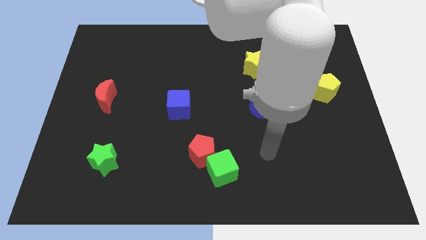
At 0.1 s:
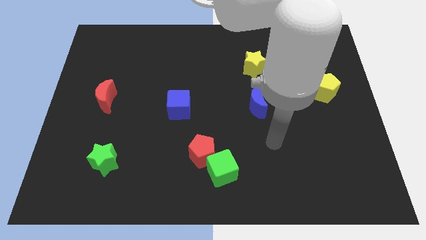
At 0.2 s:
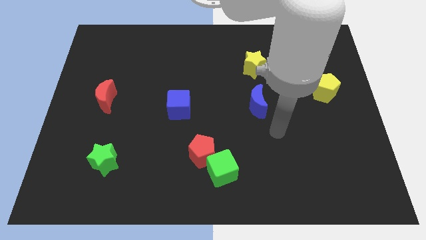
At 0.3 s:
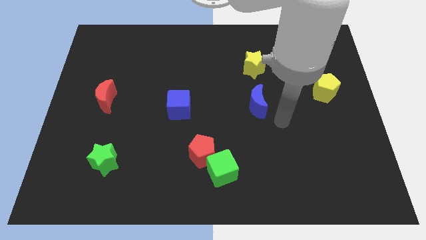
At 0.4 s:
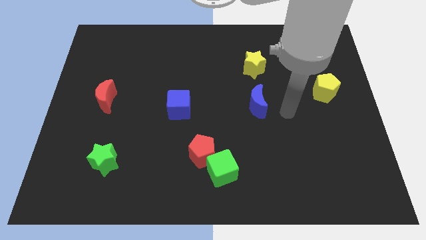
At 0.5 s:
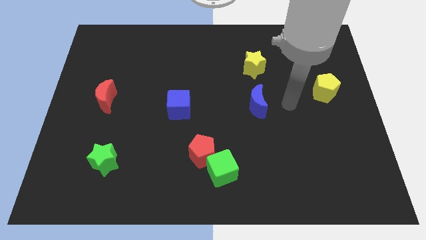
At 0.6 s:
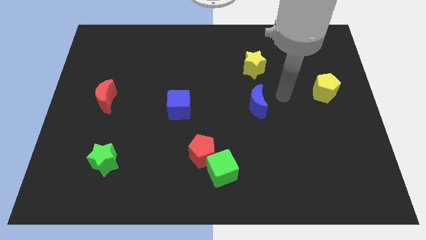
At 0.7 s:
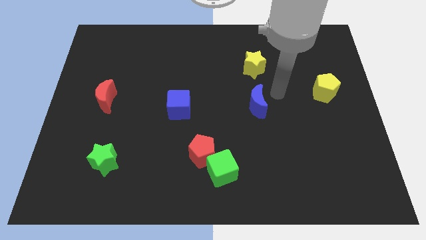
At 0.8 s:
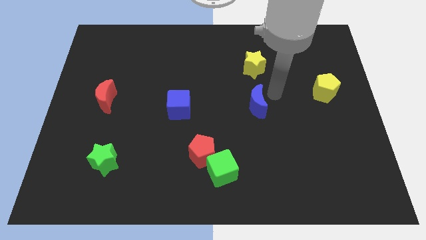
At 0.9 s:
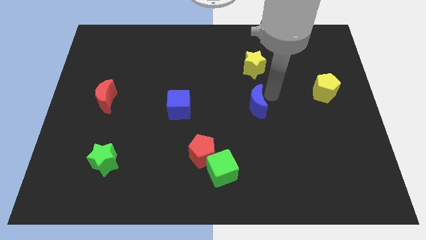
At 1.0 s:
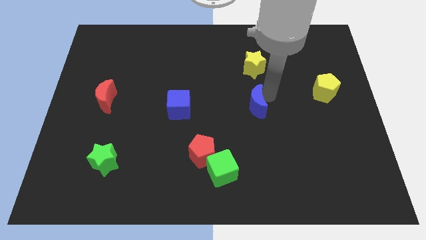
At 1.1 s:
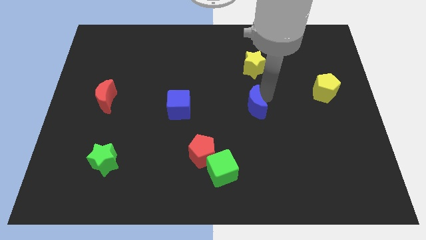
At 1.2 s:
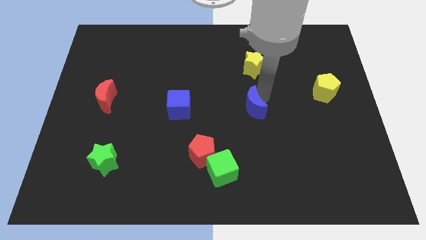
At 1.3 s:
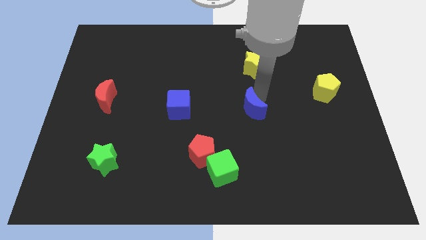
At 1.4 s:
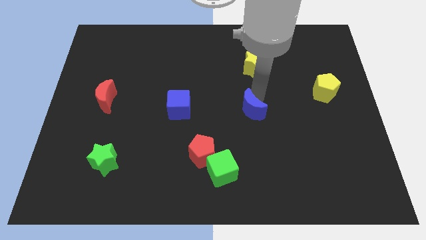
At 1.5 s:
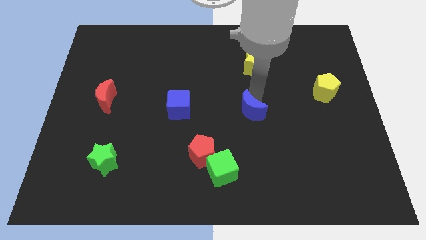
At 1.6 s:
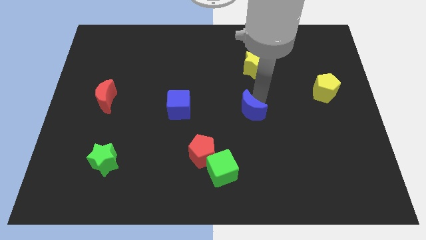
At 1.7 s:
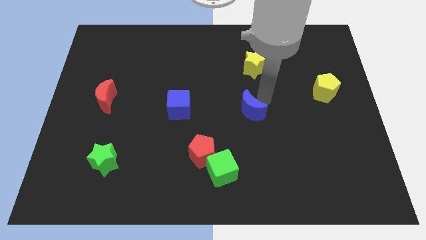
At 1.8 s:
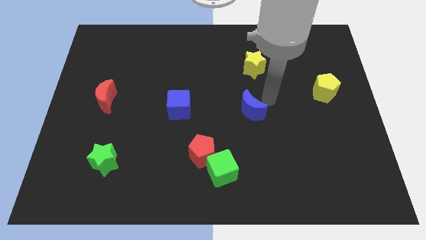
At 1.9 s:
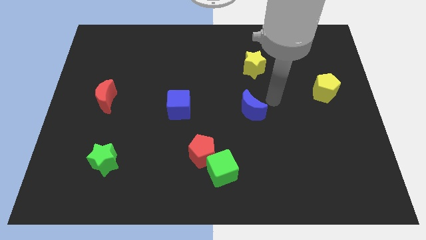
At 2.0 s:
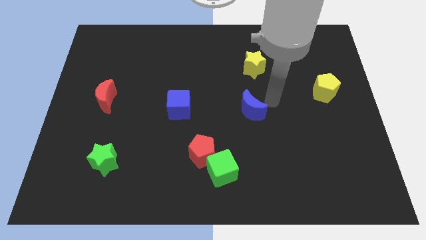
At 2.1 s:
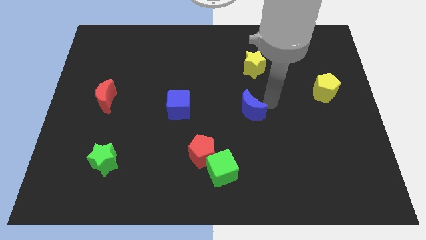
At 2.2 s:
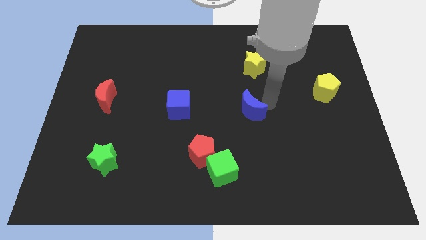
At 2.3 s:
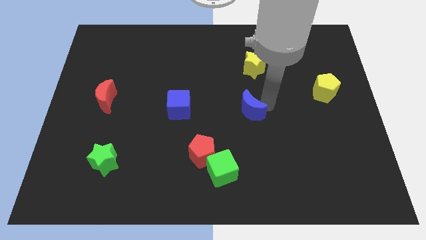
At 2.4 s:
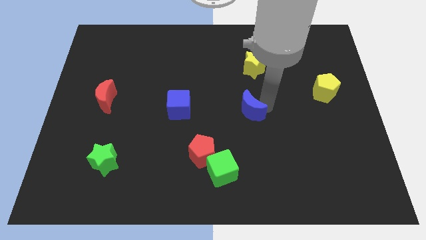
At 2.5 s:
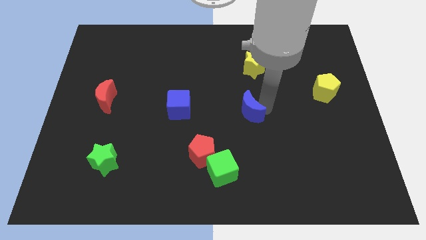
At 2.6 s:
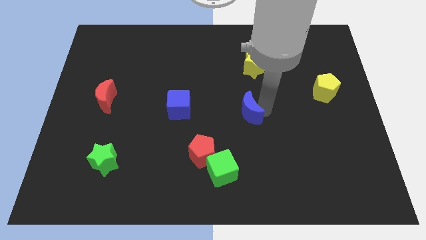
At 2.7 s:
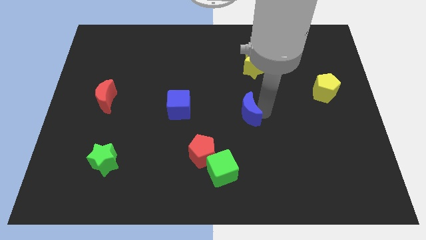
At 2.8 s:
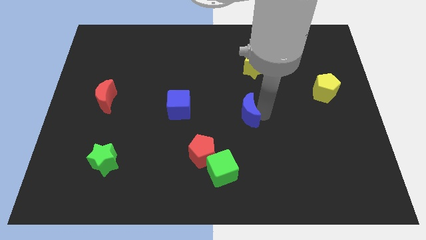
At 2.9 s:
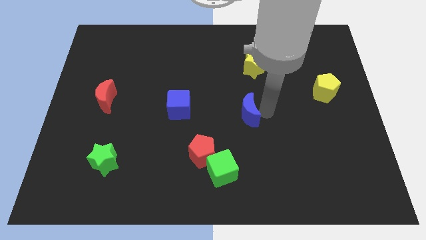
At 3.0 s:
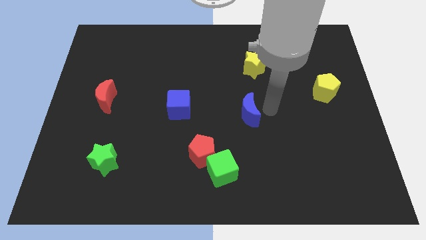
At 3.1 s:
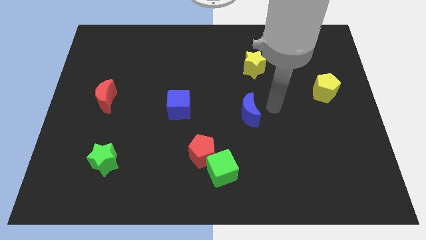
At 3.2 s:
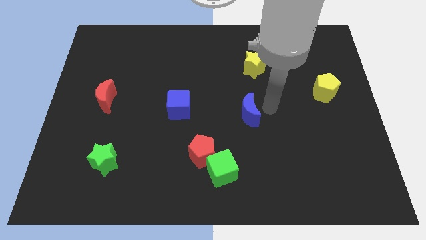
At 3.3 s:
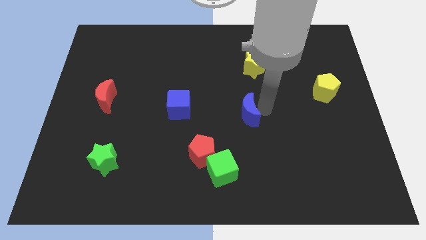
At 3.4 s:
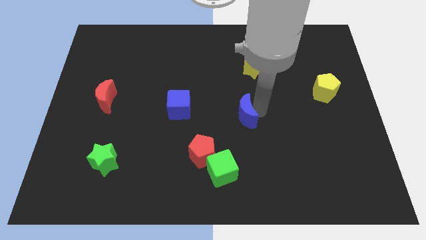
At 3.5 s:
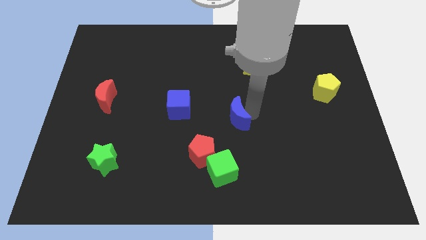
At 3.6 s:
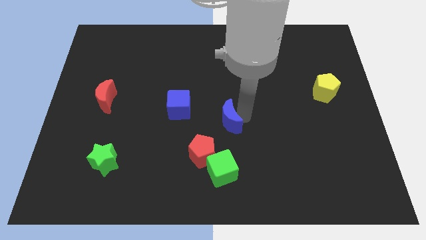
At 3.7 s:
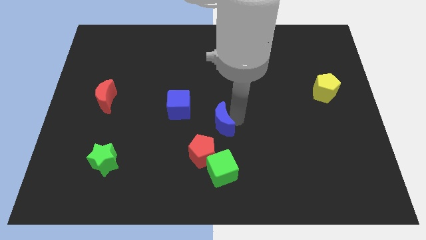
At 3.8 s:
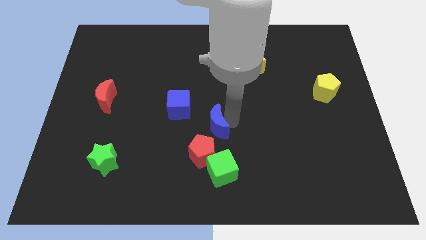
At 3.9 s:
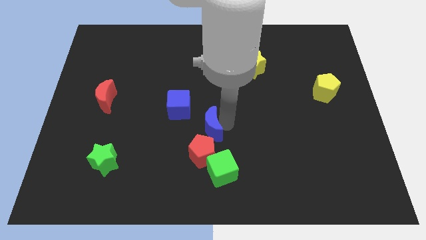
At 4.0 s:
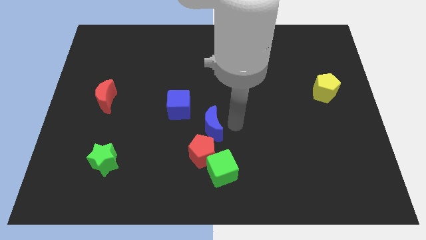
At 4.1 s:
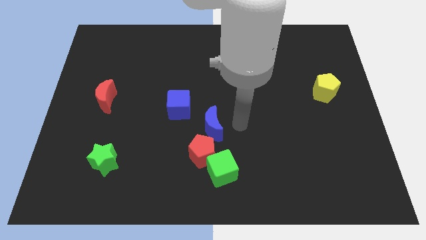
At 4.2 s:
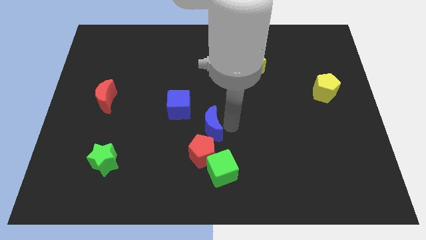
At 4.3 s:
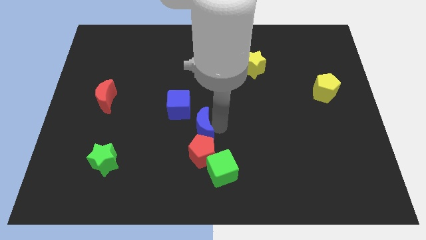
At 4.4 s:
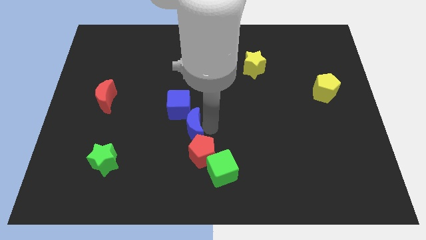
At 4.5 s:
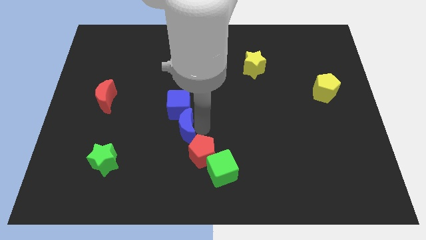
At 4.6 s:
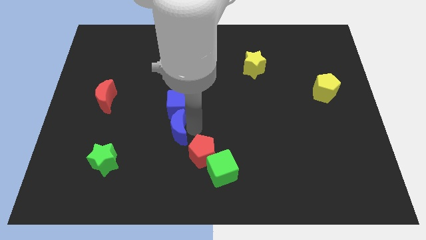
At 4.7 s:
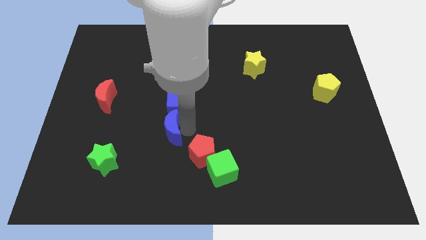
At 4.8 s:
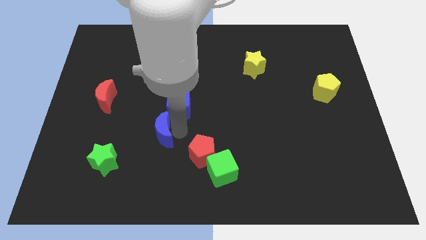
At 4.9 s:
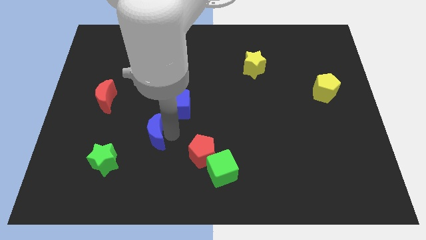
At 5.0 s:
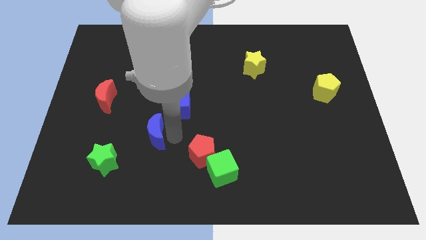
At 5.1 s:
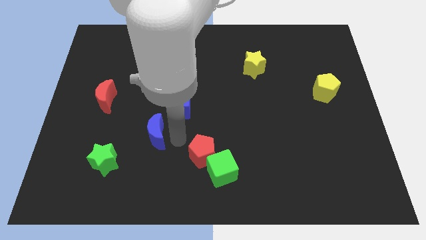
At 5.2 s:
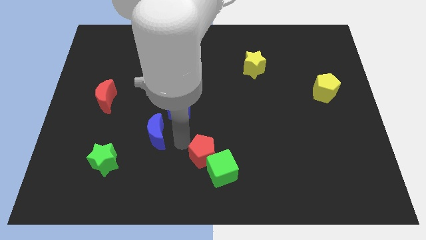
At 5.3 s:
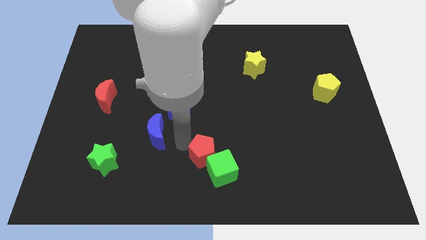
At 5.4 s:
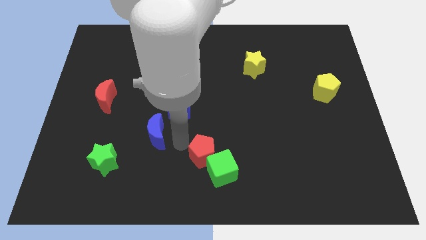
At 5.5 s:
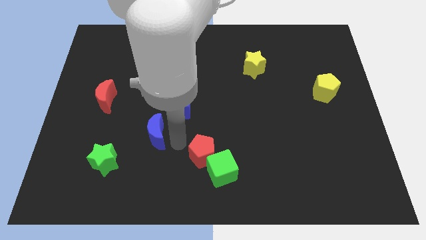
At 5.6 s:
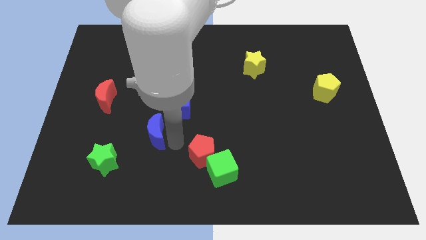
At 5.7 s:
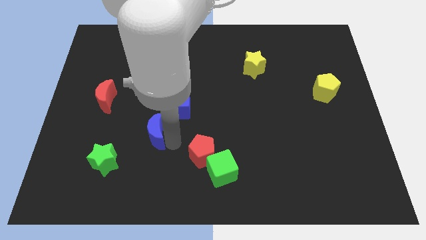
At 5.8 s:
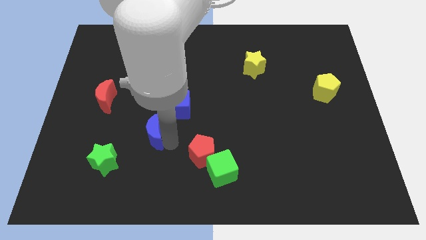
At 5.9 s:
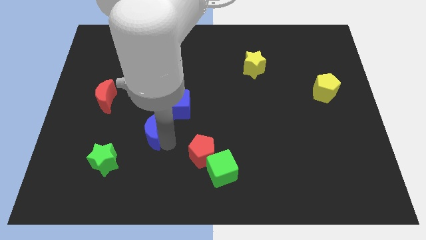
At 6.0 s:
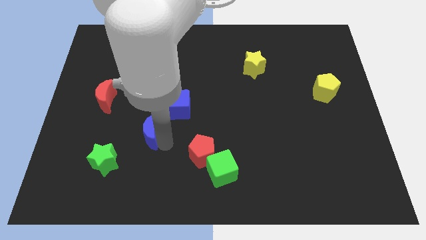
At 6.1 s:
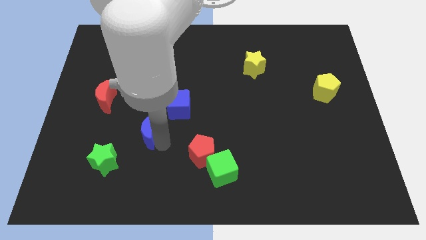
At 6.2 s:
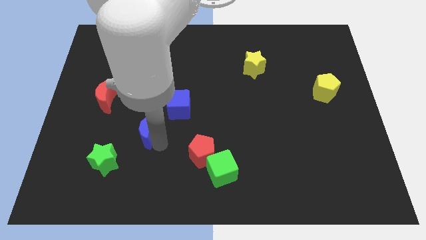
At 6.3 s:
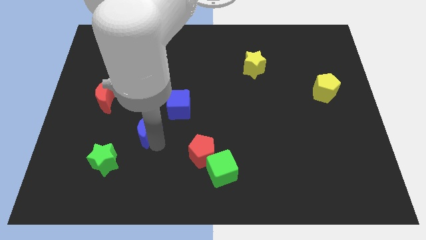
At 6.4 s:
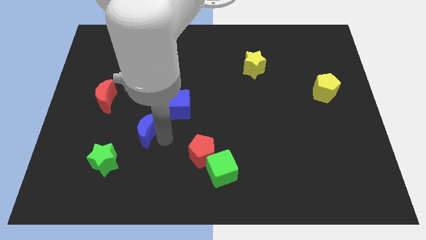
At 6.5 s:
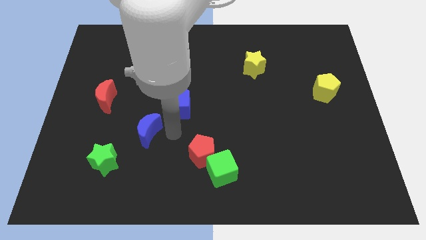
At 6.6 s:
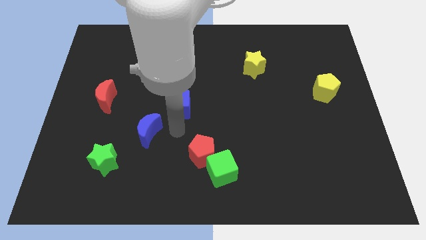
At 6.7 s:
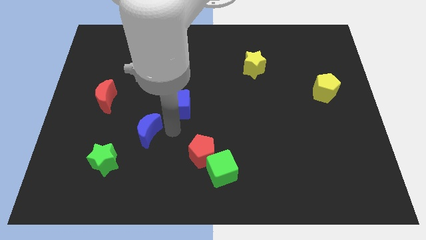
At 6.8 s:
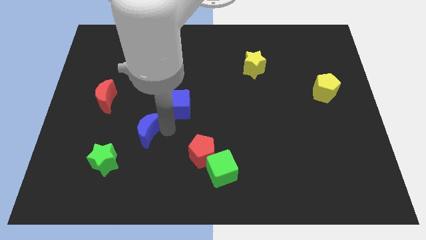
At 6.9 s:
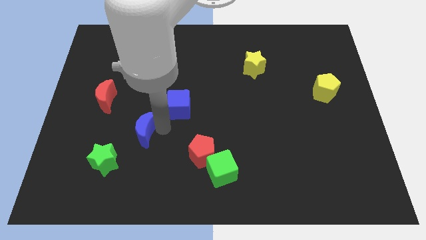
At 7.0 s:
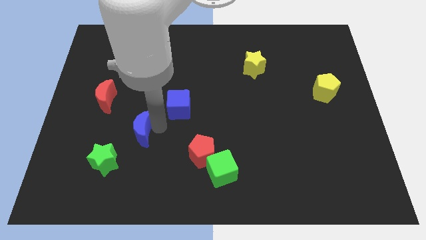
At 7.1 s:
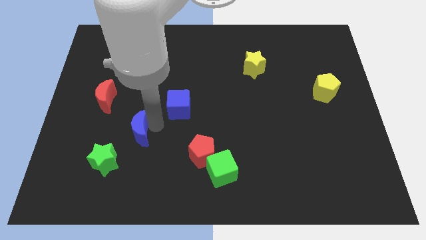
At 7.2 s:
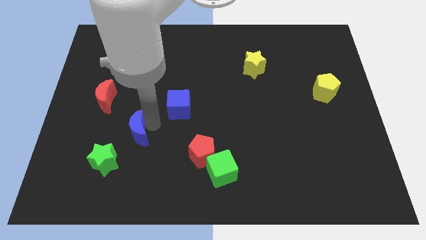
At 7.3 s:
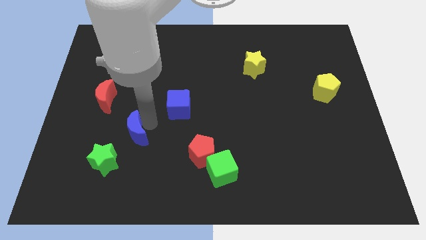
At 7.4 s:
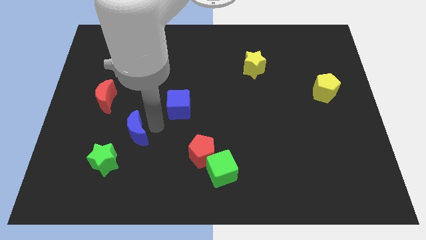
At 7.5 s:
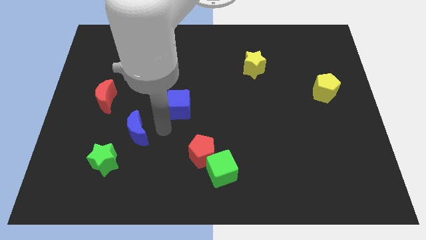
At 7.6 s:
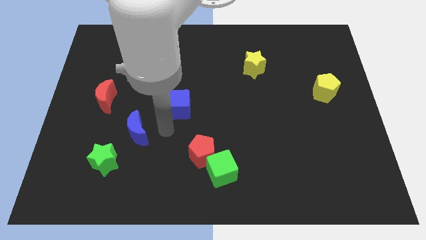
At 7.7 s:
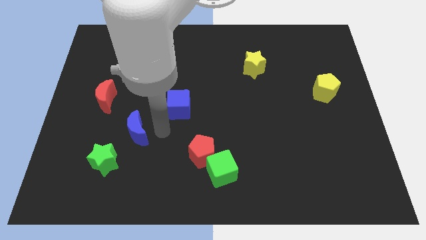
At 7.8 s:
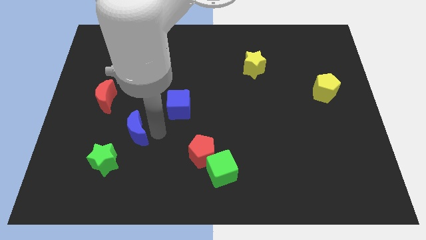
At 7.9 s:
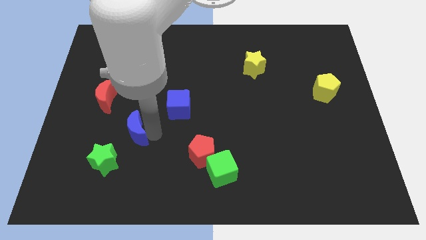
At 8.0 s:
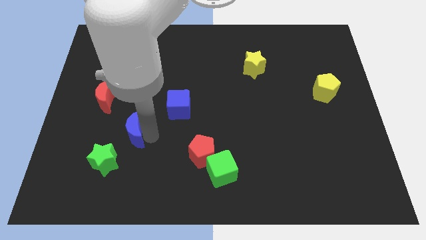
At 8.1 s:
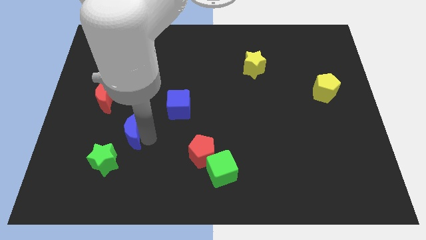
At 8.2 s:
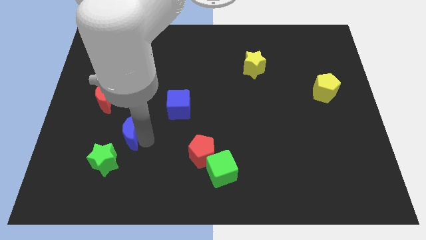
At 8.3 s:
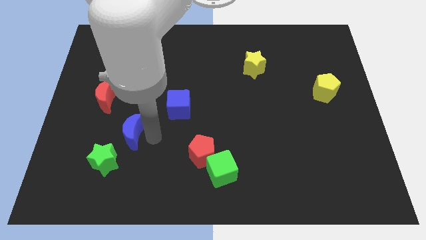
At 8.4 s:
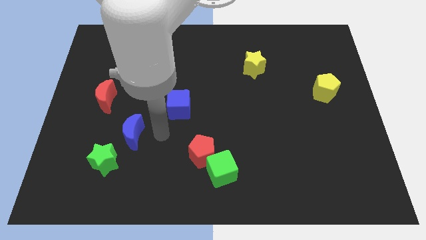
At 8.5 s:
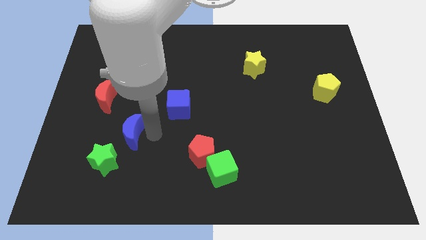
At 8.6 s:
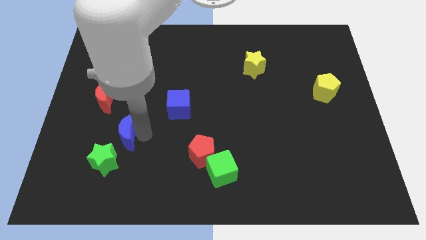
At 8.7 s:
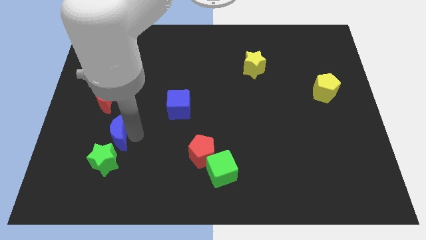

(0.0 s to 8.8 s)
slide the blue moon to the bottom side of the red moon
